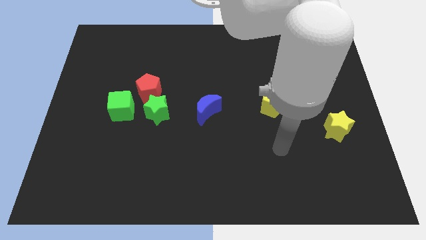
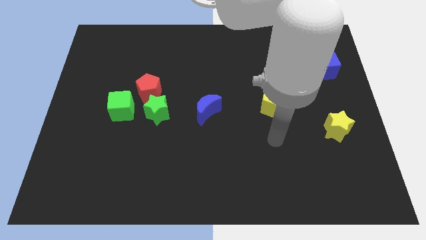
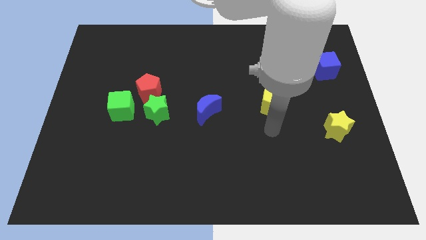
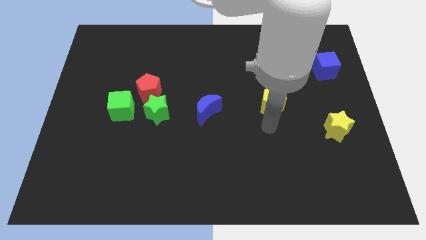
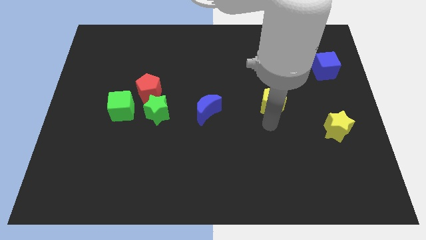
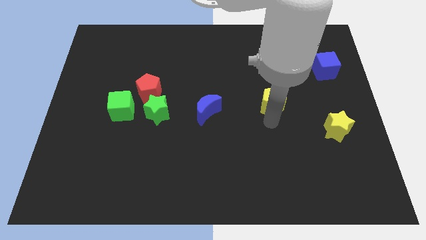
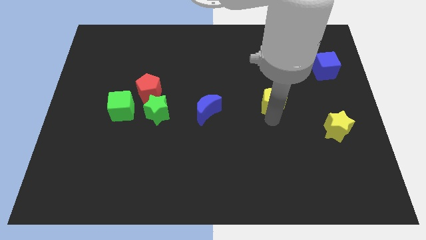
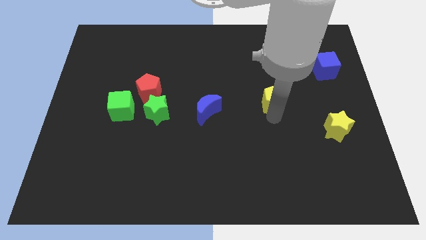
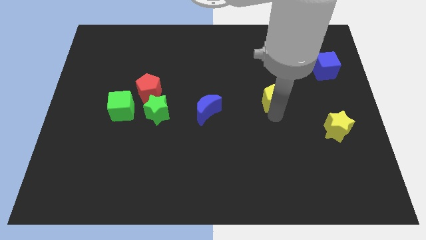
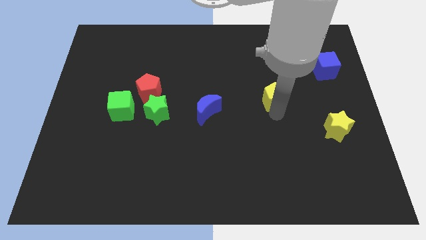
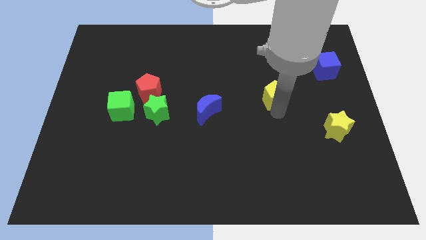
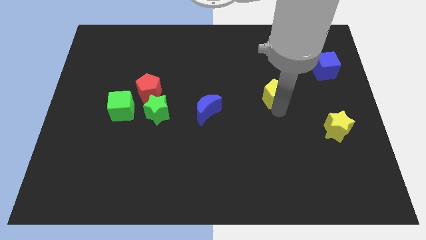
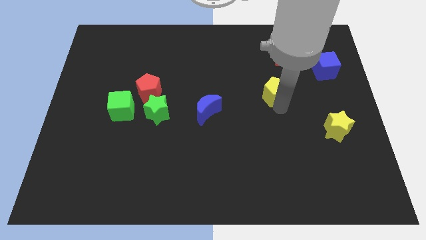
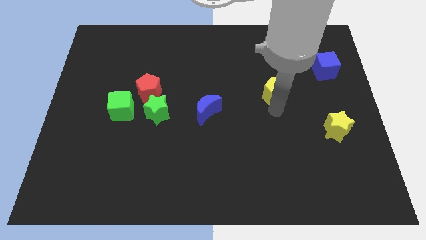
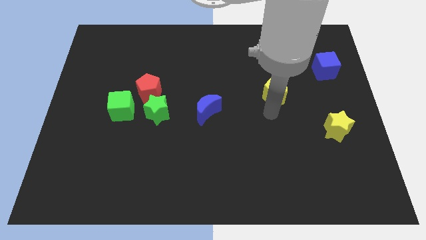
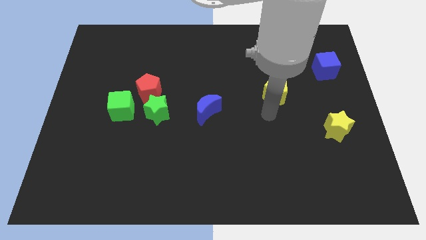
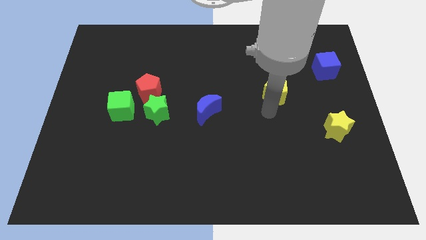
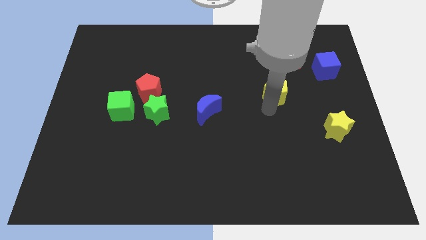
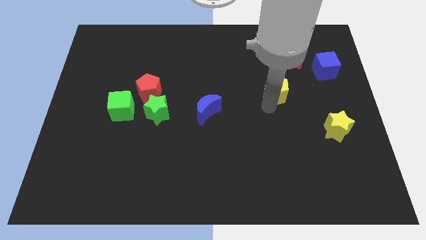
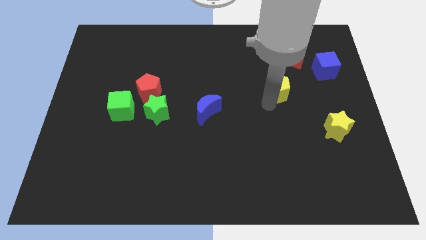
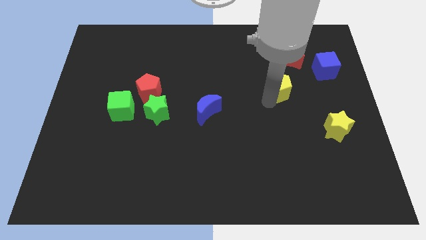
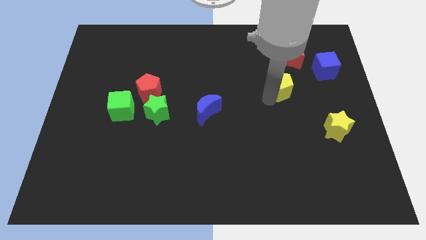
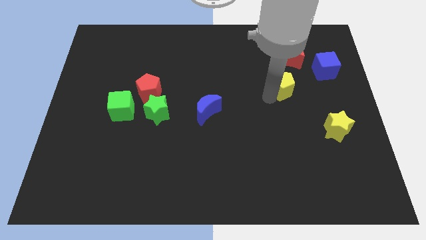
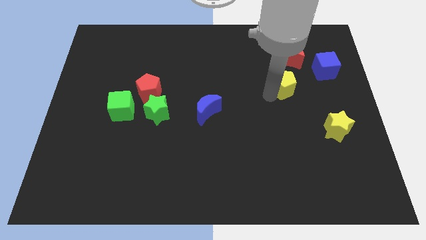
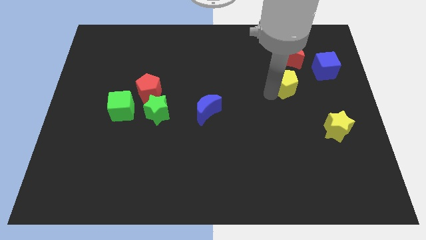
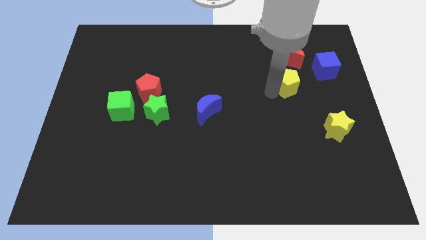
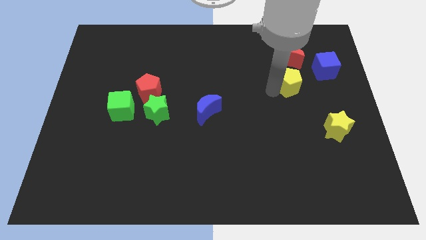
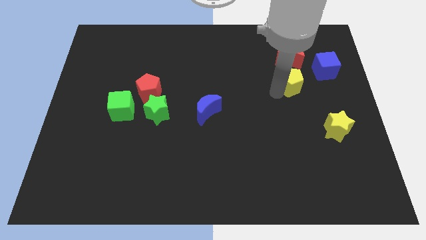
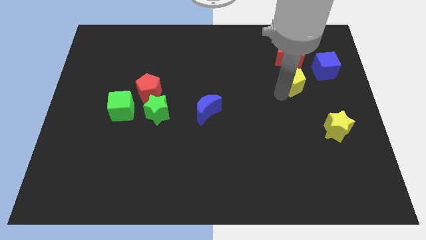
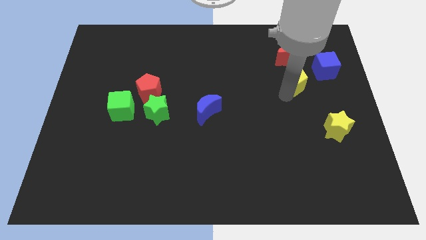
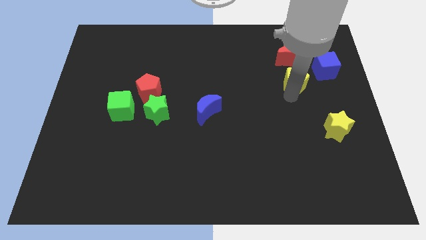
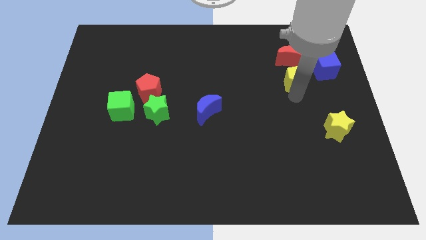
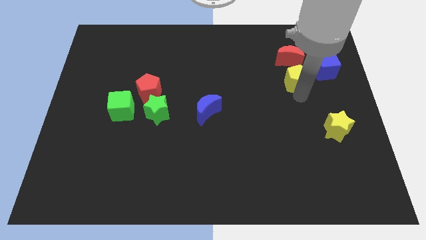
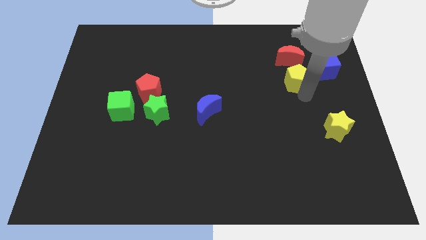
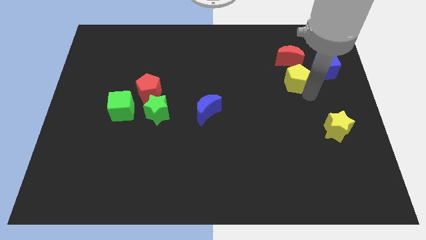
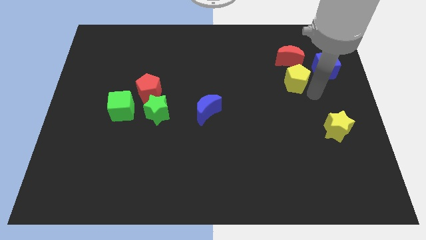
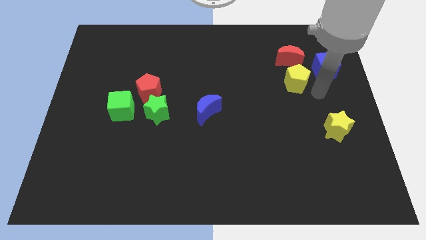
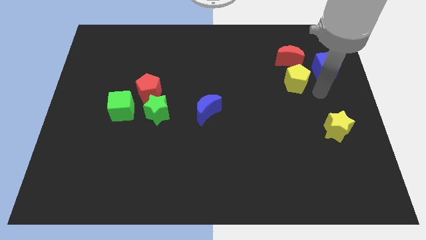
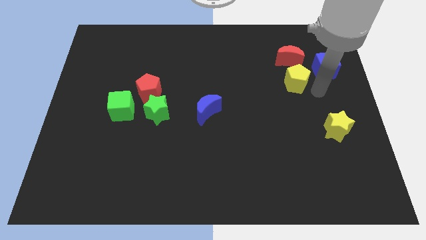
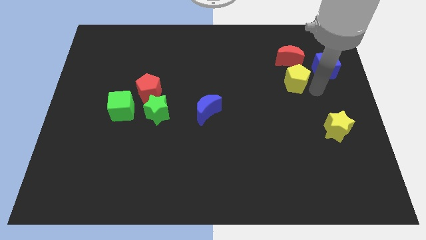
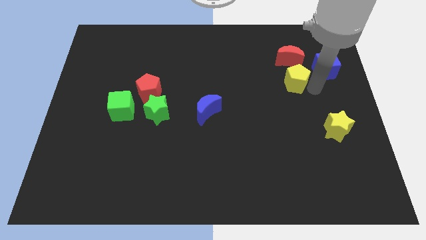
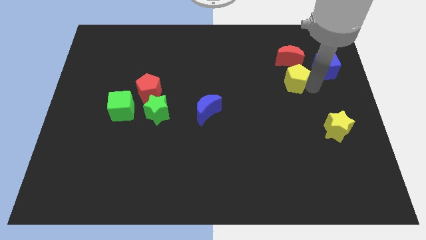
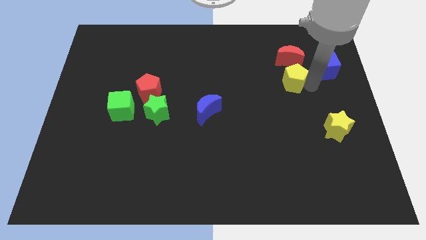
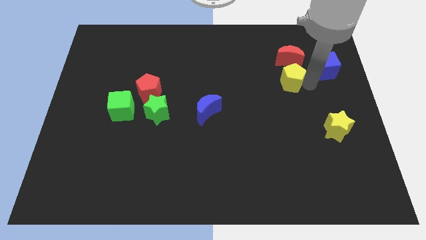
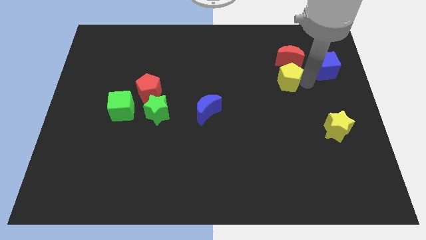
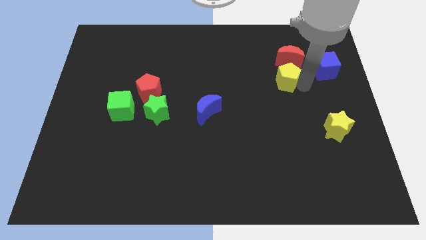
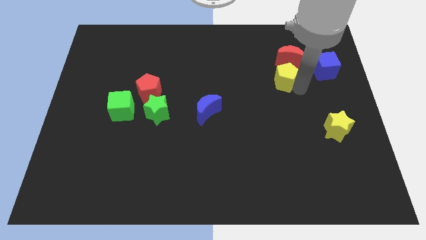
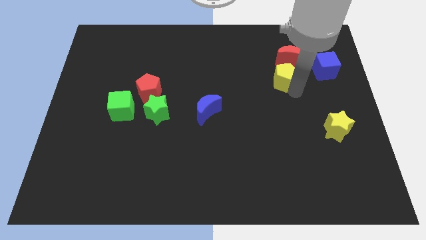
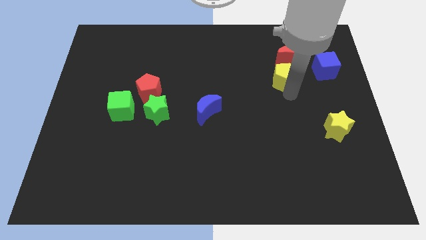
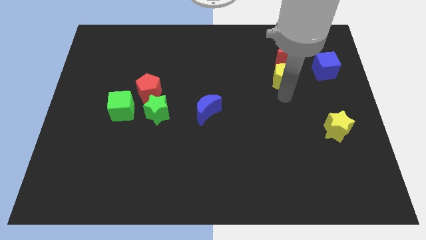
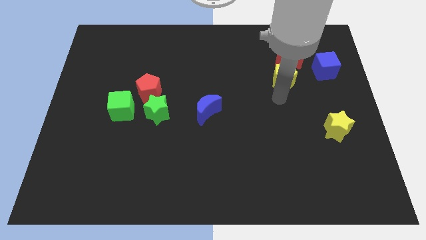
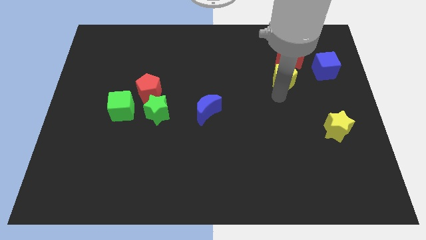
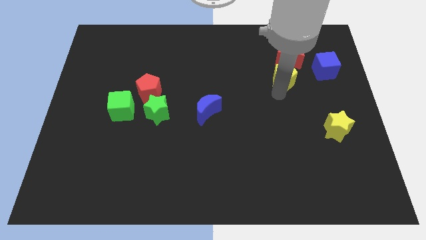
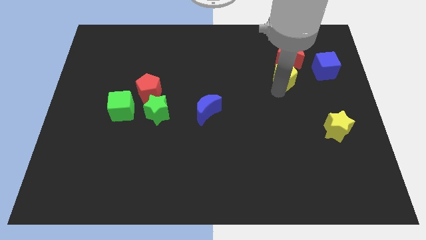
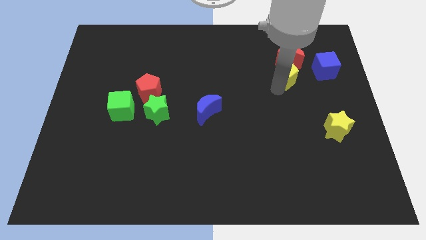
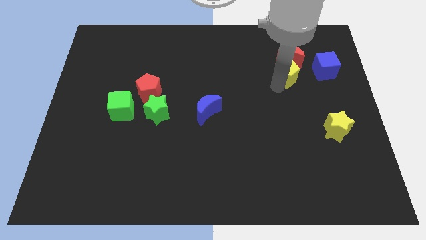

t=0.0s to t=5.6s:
put the yellow pentagon close to the red moon

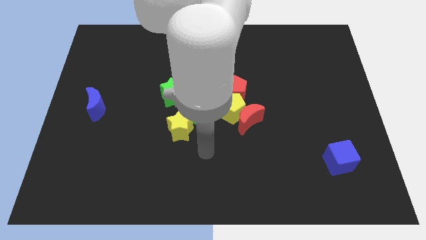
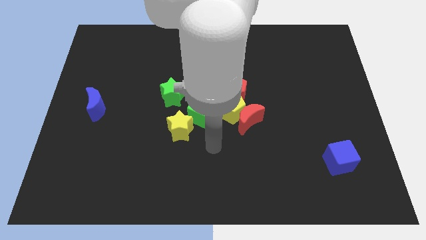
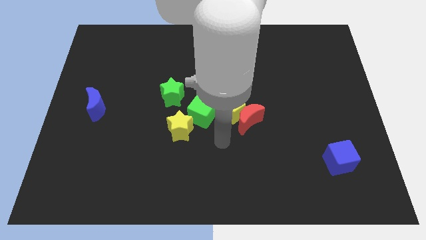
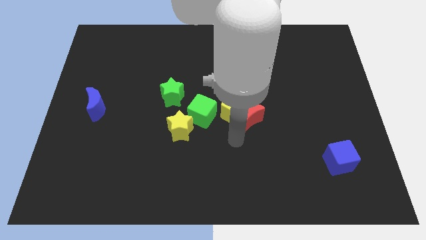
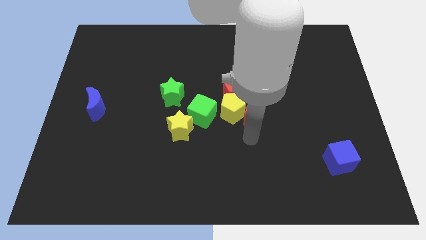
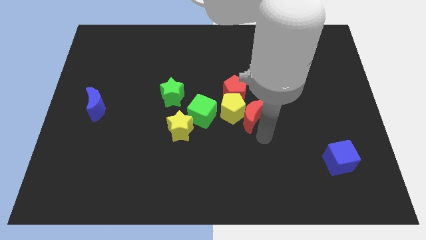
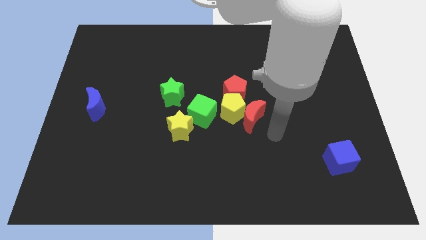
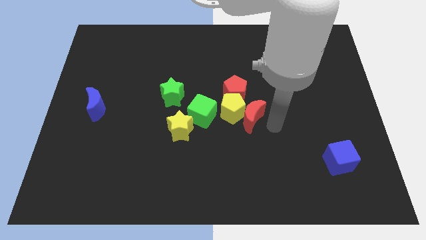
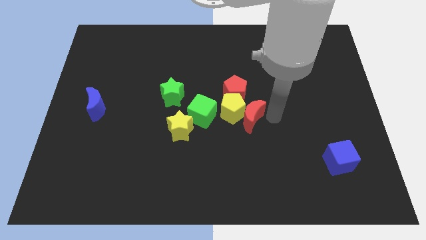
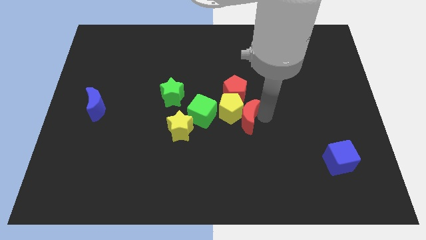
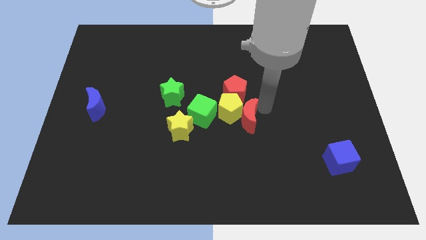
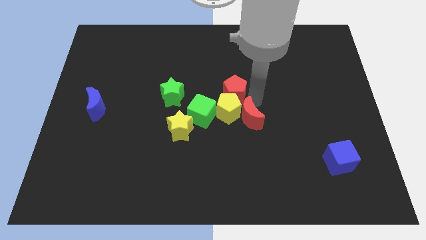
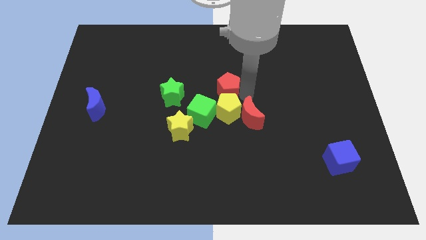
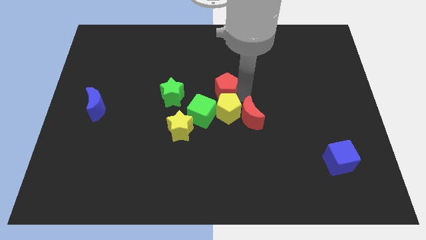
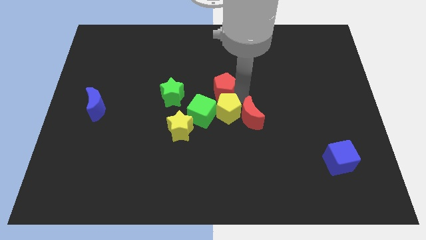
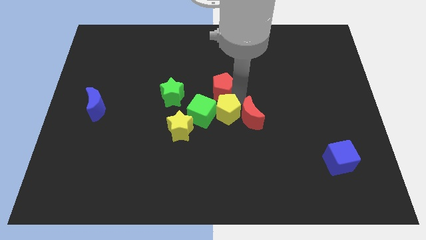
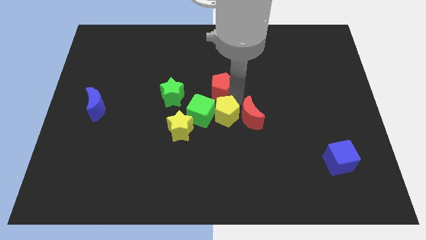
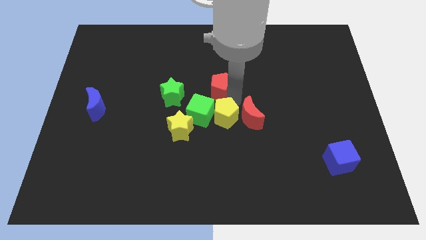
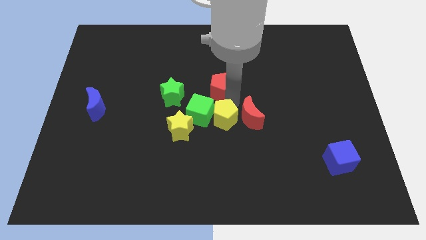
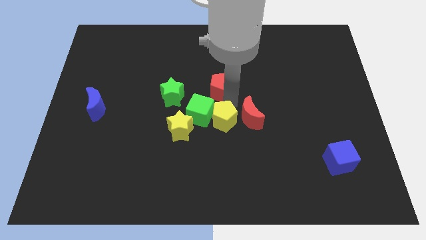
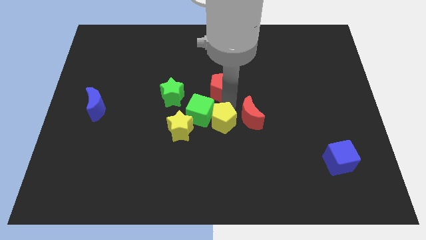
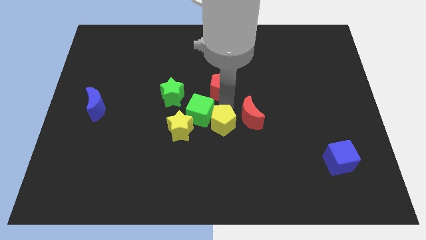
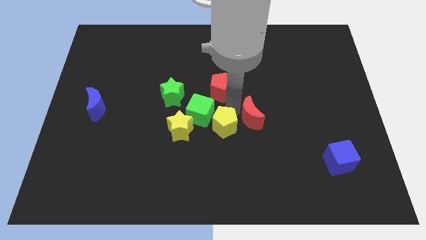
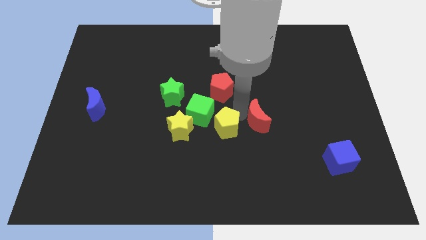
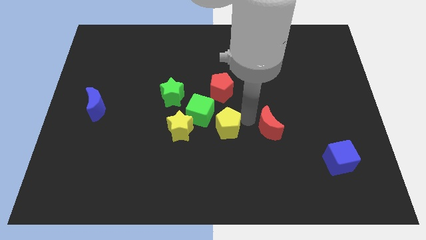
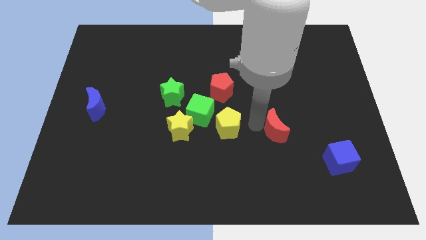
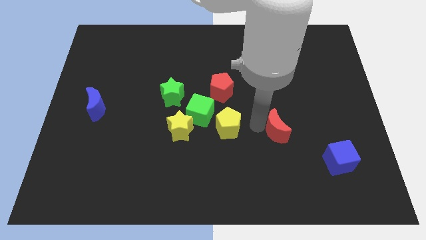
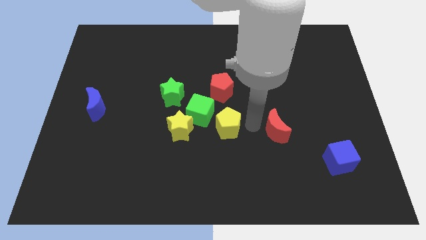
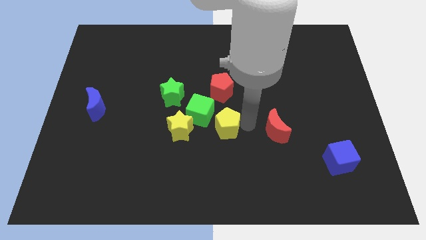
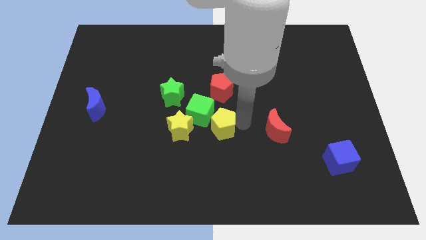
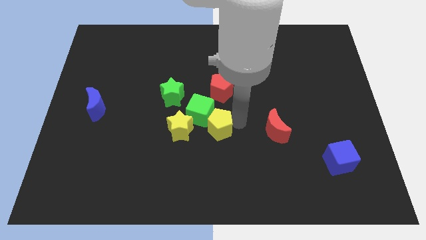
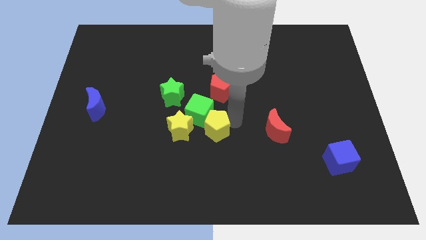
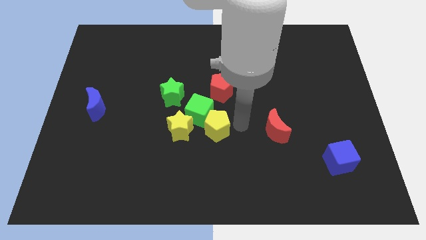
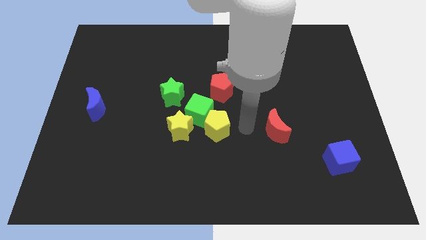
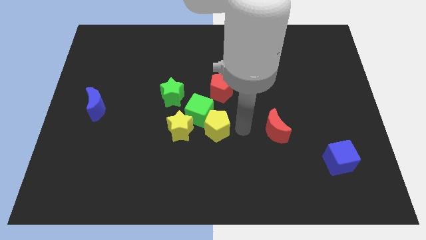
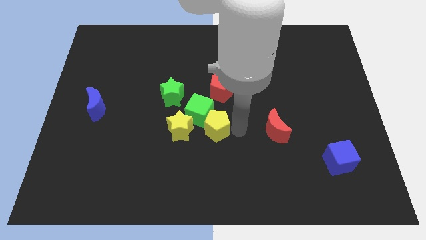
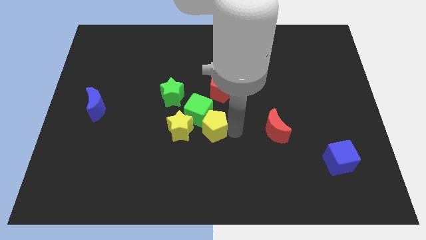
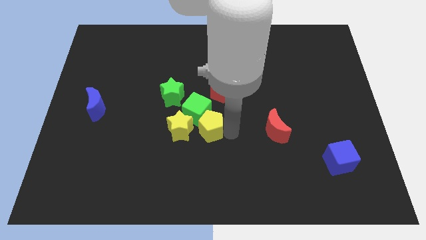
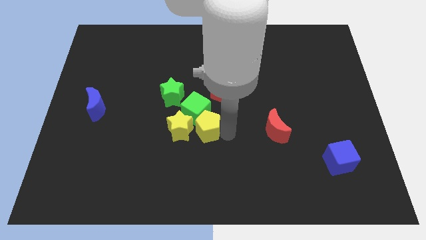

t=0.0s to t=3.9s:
slide the yellow pentagon next to the yellow star
